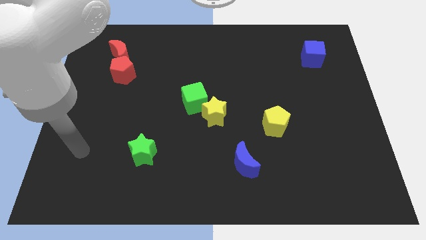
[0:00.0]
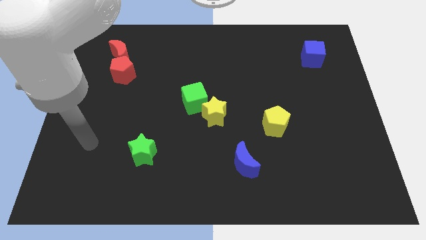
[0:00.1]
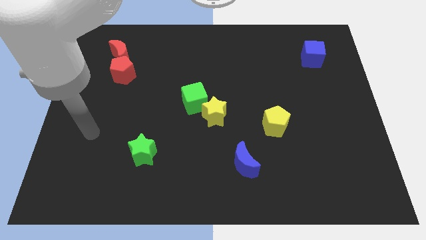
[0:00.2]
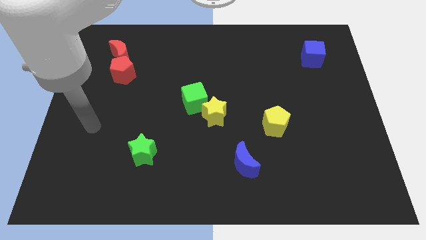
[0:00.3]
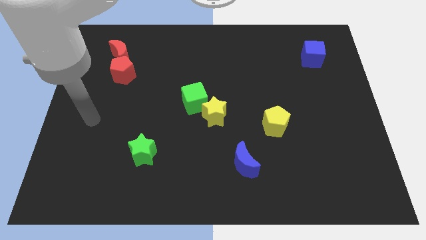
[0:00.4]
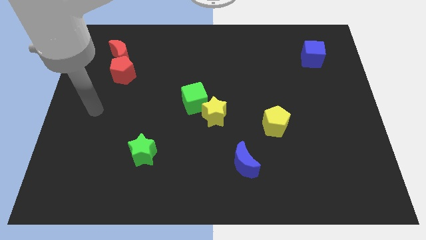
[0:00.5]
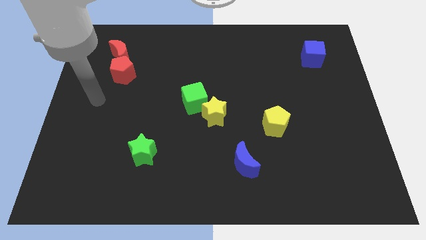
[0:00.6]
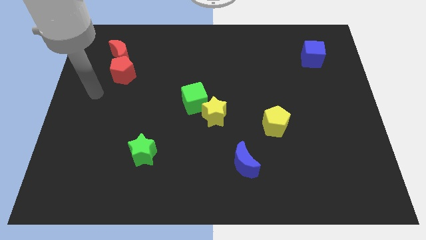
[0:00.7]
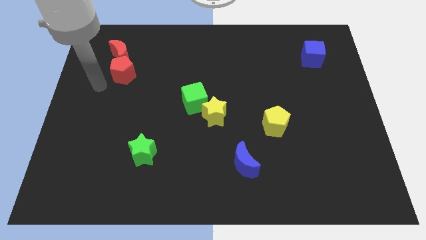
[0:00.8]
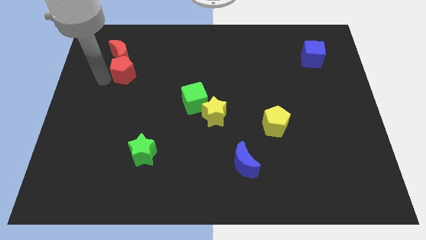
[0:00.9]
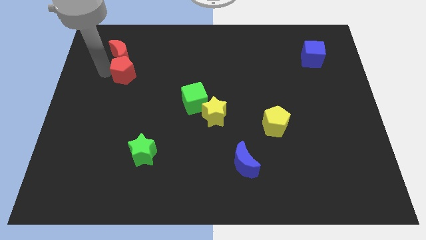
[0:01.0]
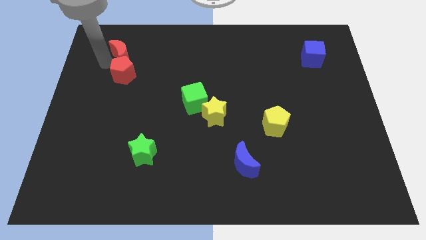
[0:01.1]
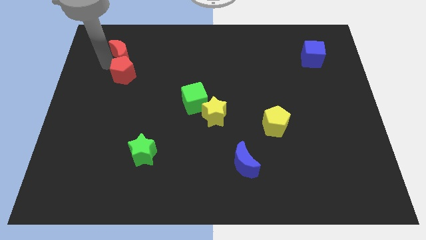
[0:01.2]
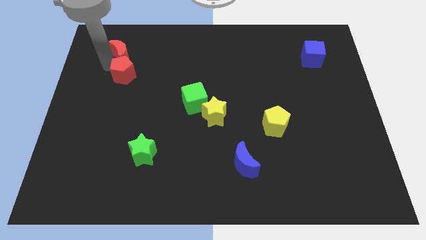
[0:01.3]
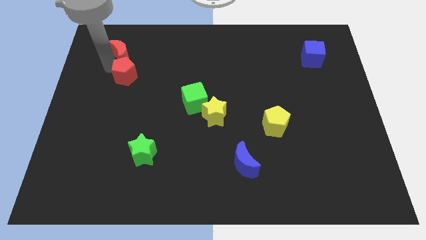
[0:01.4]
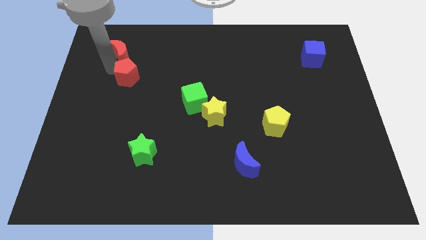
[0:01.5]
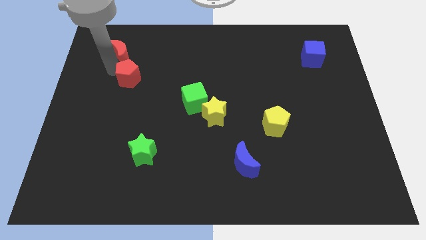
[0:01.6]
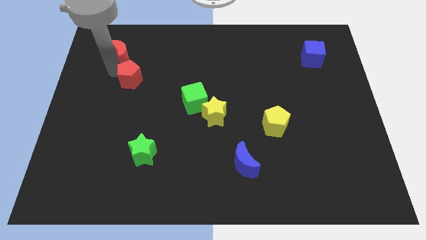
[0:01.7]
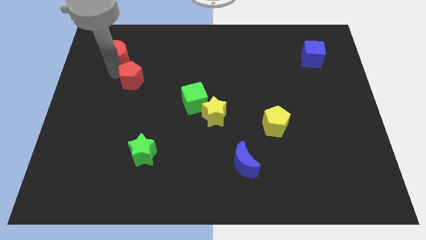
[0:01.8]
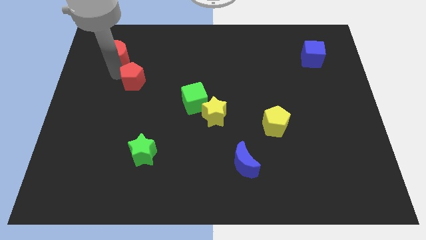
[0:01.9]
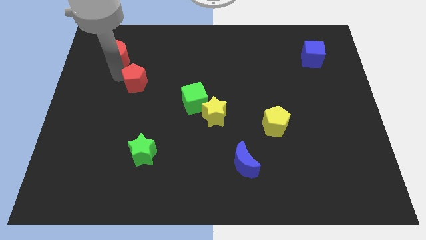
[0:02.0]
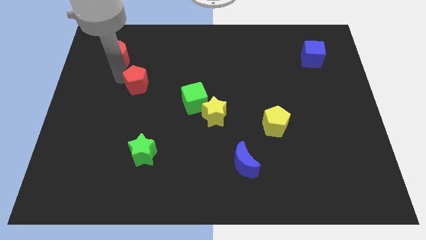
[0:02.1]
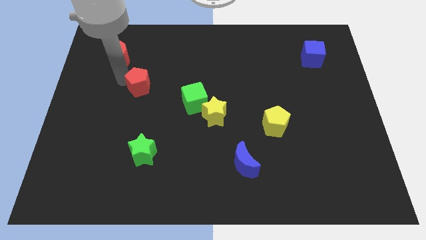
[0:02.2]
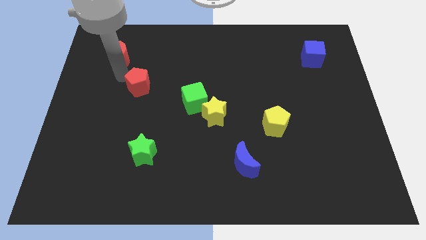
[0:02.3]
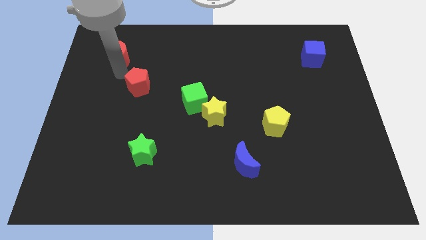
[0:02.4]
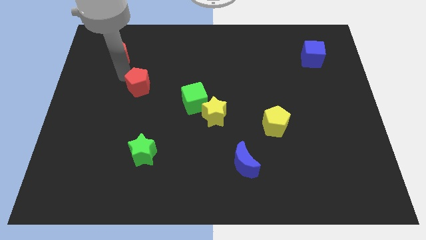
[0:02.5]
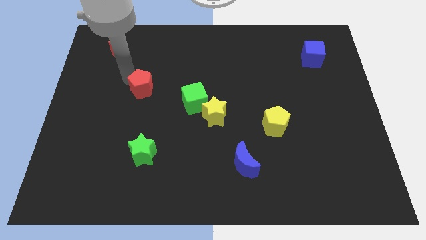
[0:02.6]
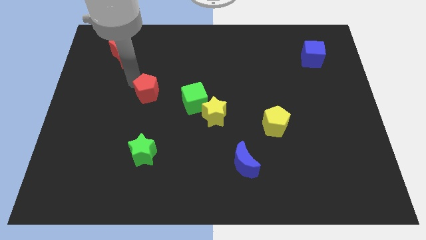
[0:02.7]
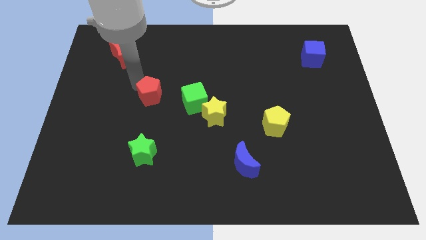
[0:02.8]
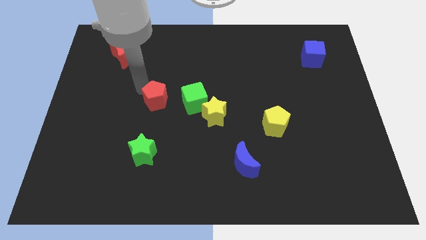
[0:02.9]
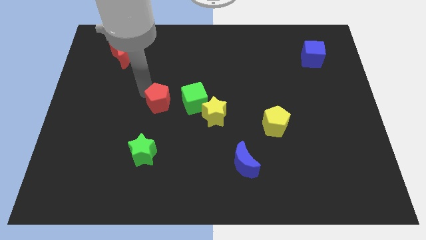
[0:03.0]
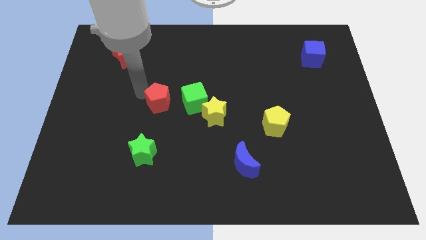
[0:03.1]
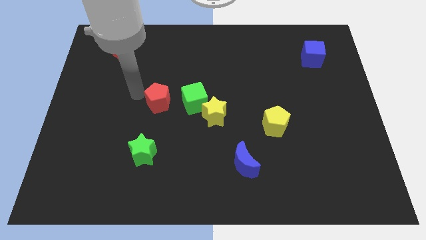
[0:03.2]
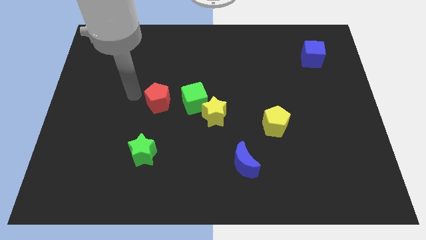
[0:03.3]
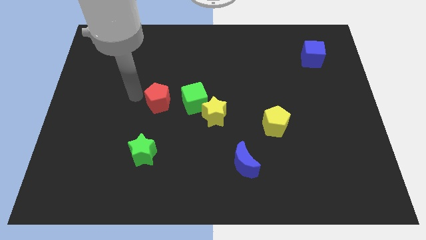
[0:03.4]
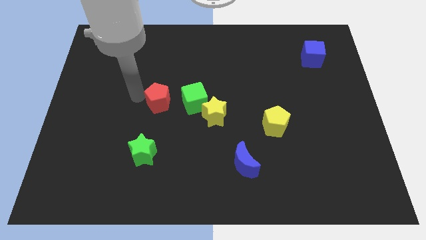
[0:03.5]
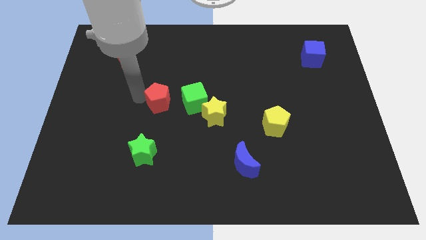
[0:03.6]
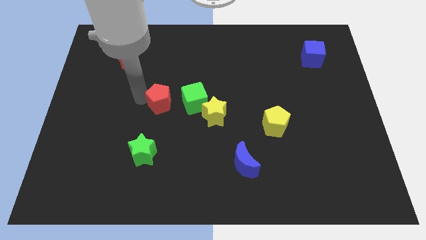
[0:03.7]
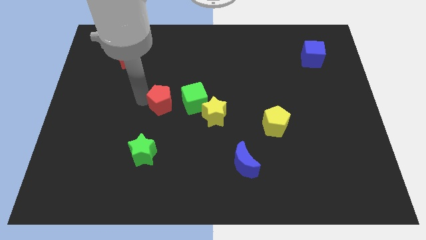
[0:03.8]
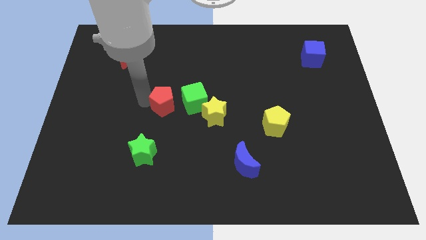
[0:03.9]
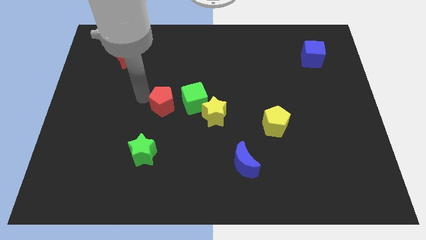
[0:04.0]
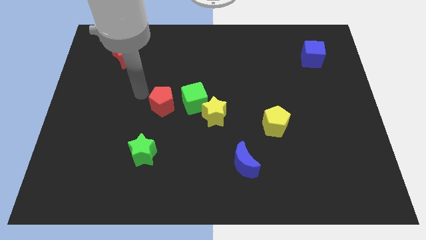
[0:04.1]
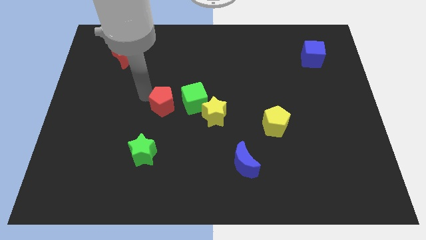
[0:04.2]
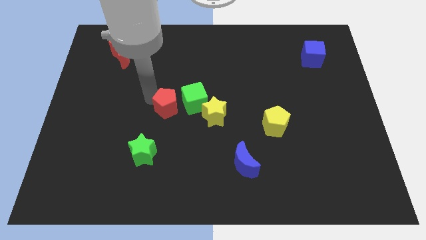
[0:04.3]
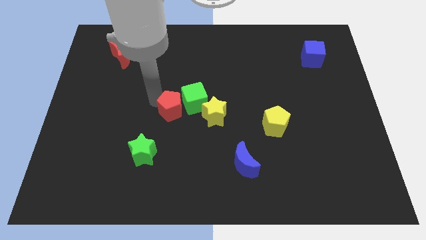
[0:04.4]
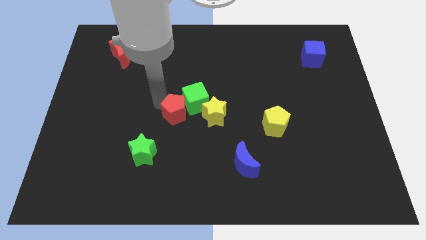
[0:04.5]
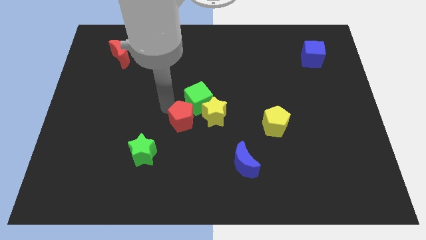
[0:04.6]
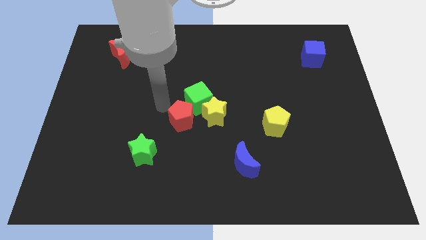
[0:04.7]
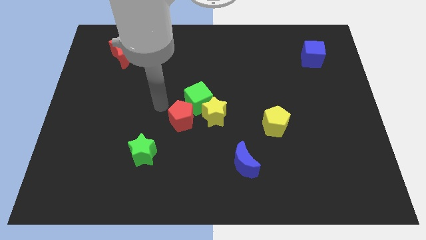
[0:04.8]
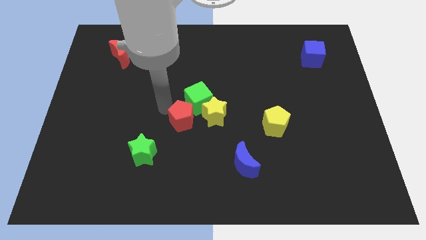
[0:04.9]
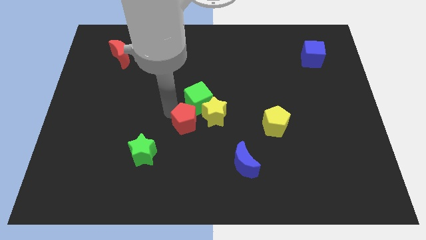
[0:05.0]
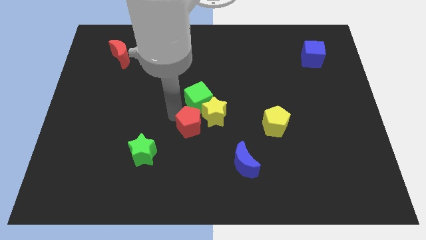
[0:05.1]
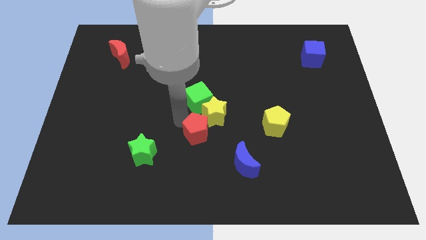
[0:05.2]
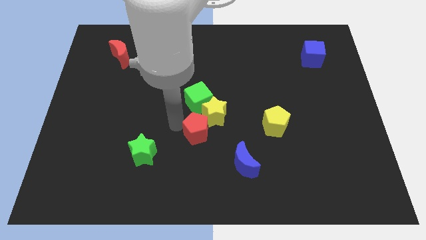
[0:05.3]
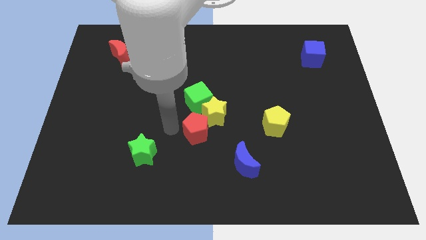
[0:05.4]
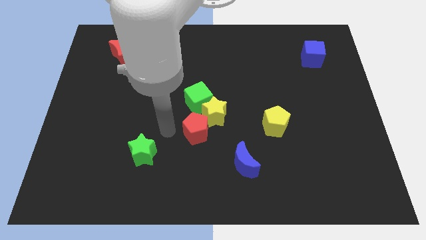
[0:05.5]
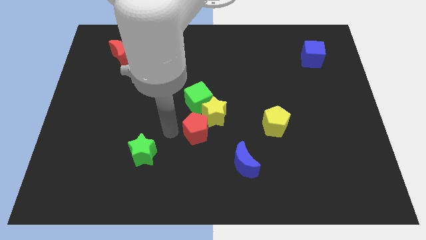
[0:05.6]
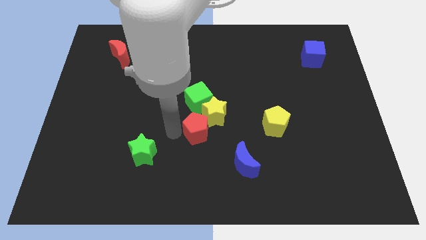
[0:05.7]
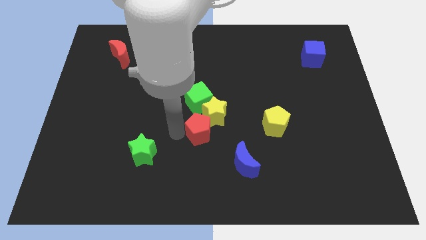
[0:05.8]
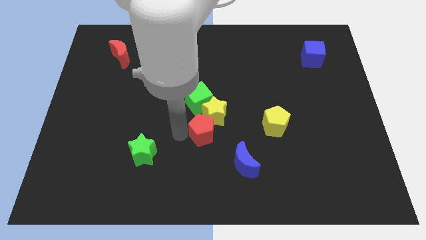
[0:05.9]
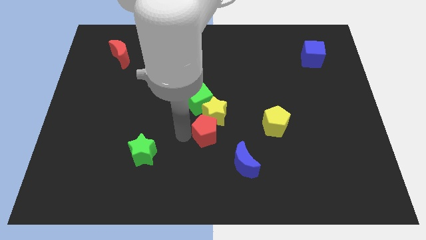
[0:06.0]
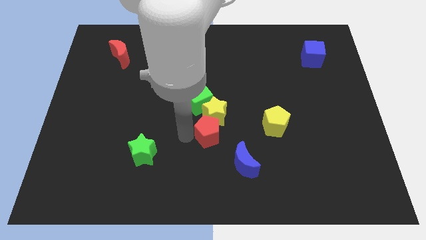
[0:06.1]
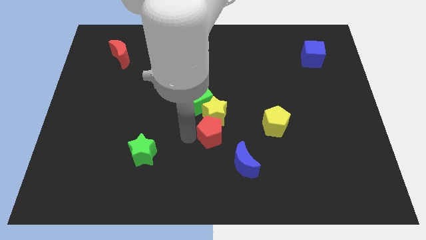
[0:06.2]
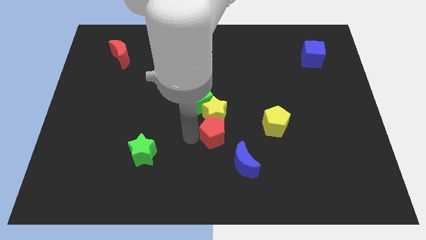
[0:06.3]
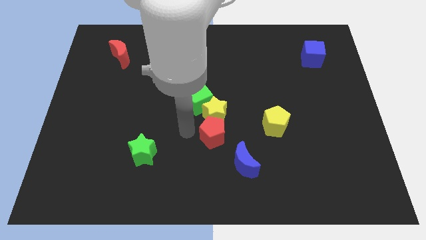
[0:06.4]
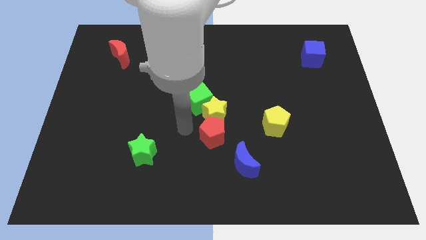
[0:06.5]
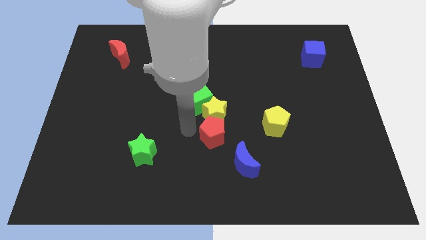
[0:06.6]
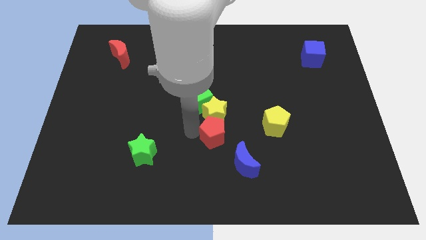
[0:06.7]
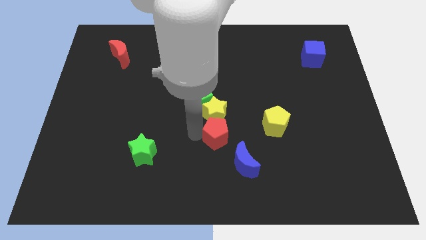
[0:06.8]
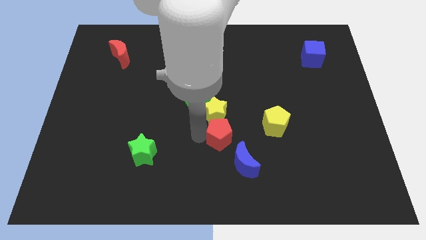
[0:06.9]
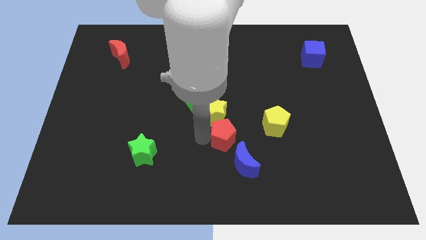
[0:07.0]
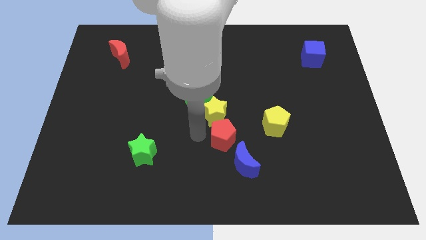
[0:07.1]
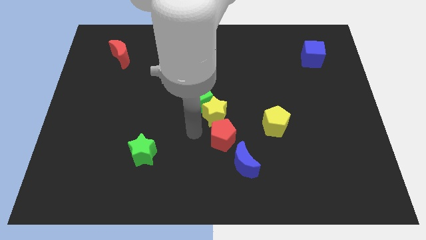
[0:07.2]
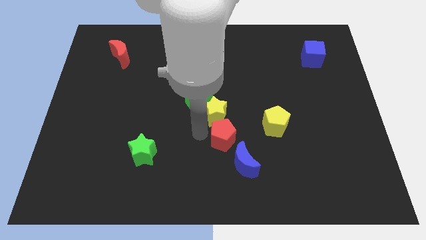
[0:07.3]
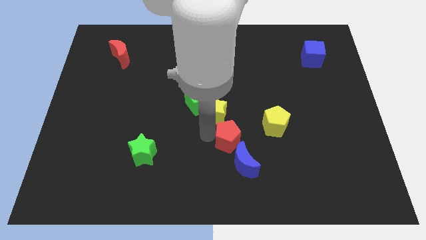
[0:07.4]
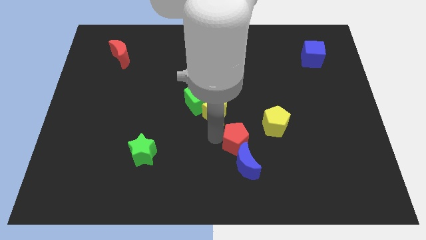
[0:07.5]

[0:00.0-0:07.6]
push the red pentagon to the bottom left of the yellow pentagon
